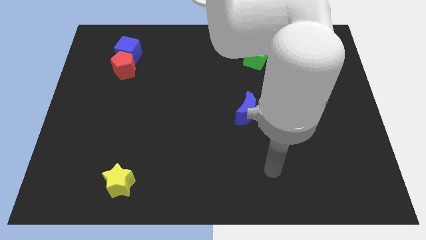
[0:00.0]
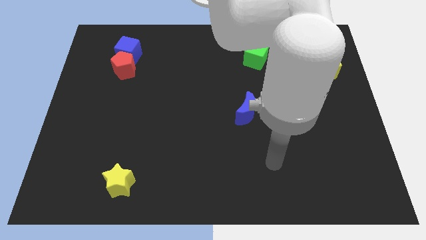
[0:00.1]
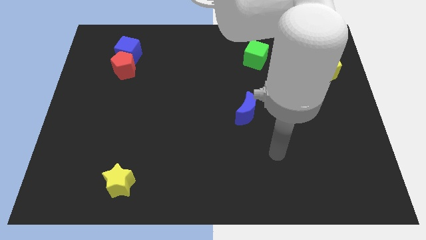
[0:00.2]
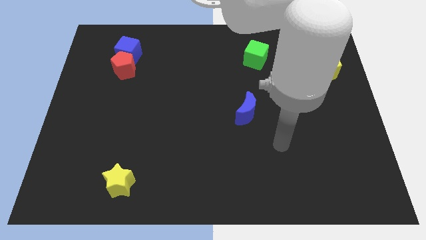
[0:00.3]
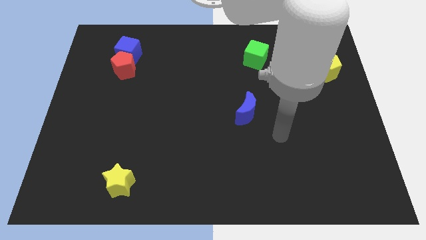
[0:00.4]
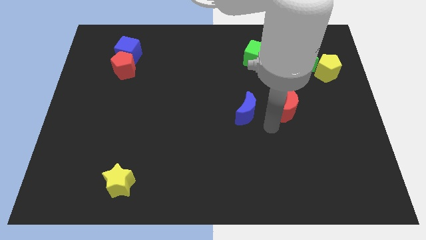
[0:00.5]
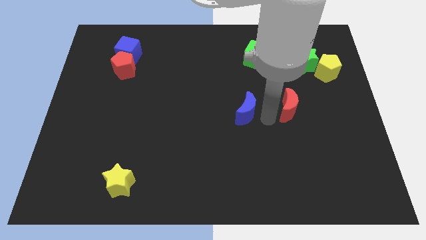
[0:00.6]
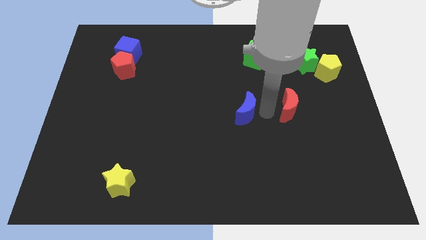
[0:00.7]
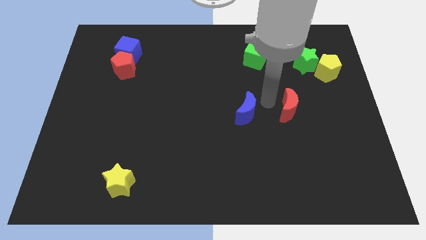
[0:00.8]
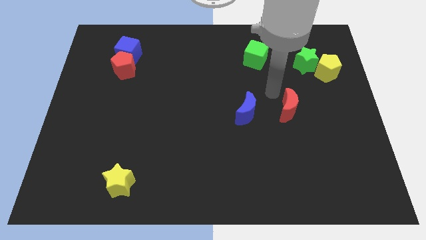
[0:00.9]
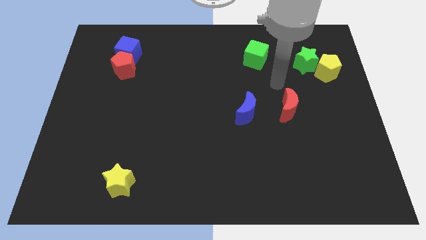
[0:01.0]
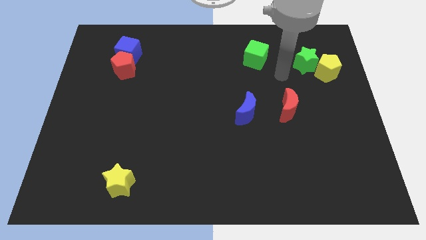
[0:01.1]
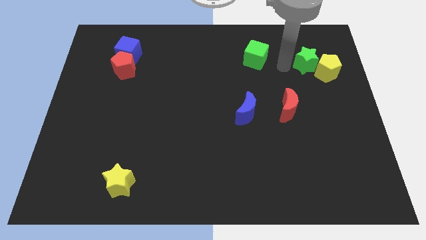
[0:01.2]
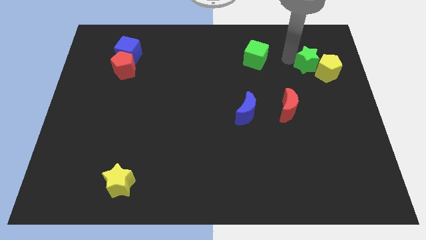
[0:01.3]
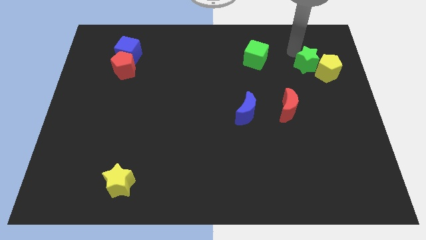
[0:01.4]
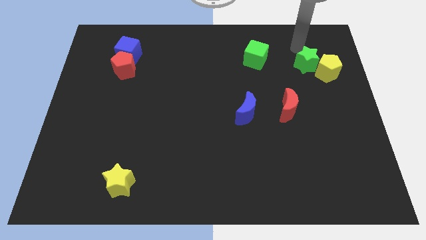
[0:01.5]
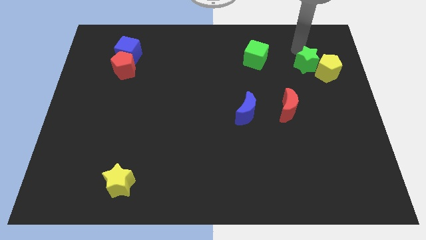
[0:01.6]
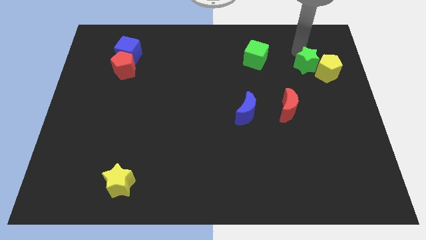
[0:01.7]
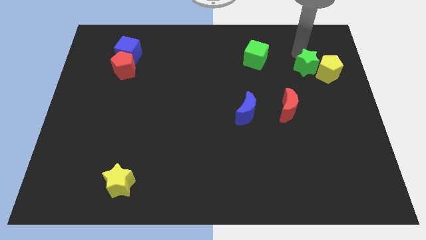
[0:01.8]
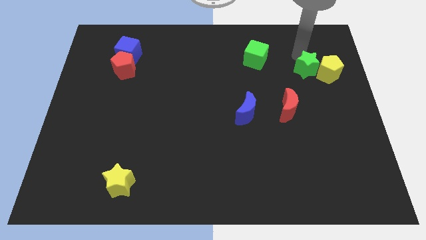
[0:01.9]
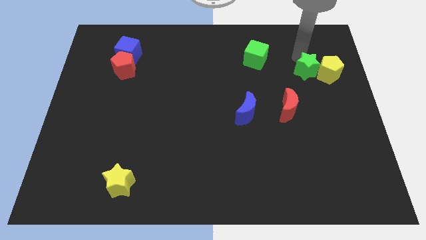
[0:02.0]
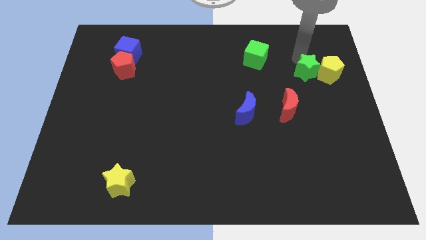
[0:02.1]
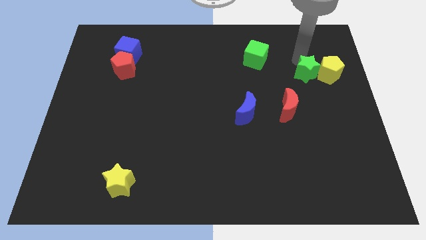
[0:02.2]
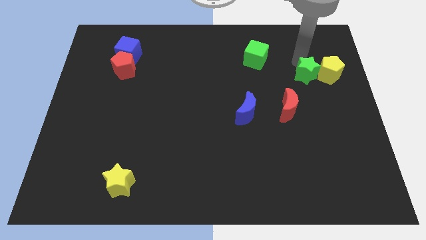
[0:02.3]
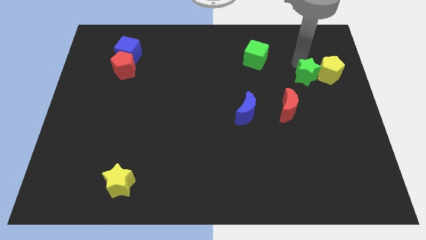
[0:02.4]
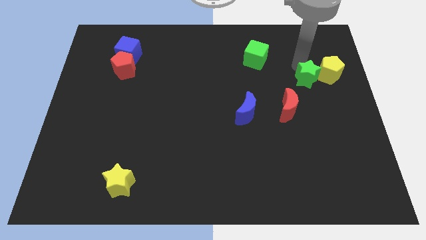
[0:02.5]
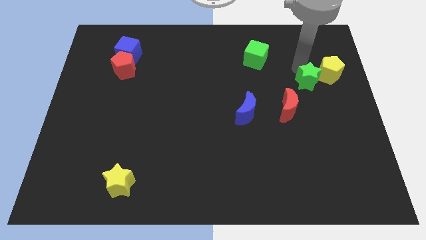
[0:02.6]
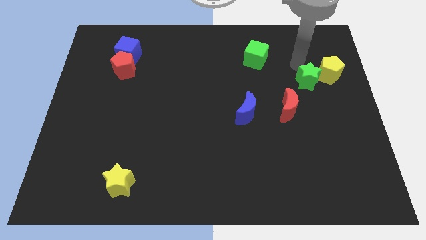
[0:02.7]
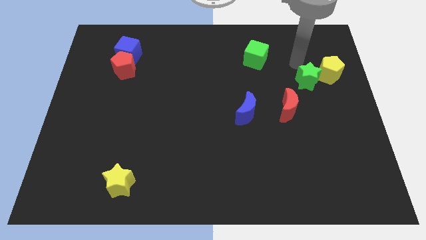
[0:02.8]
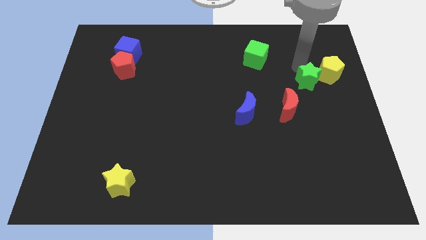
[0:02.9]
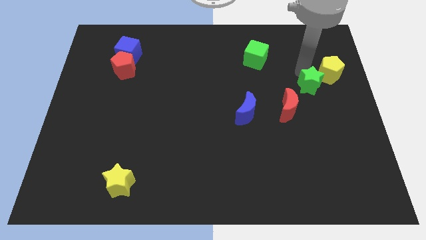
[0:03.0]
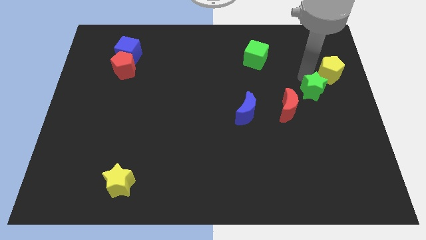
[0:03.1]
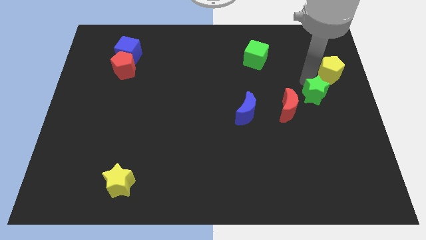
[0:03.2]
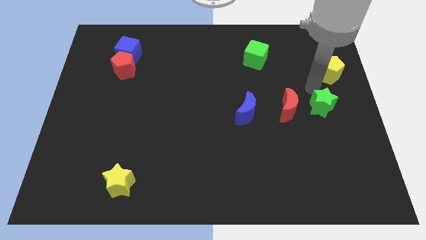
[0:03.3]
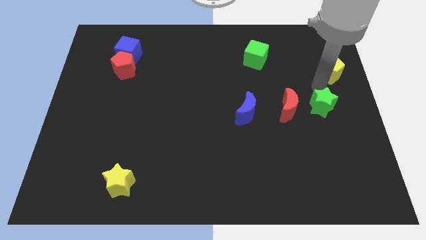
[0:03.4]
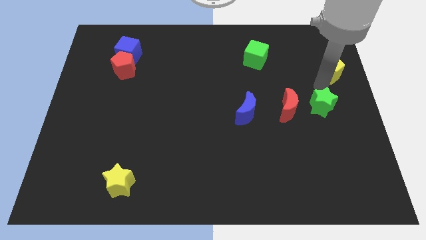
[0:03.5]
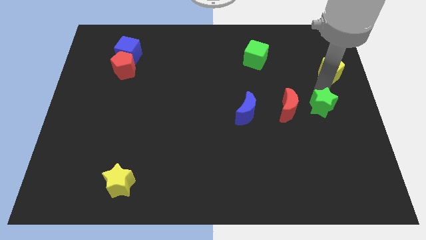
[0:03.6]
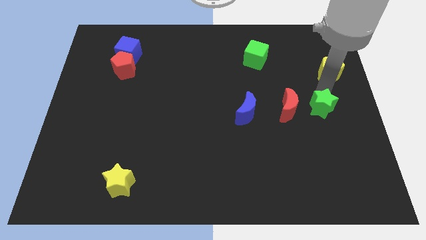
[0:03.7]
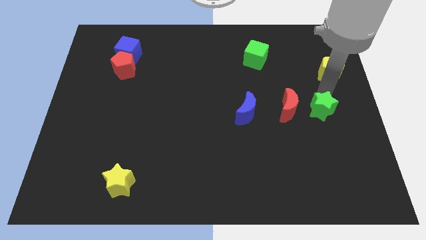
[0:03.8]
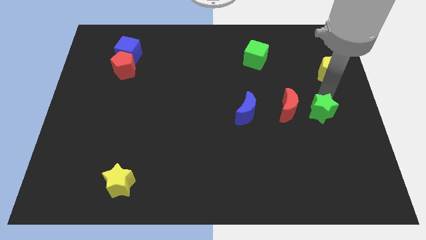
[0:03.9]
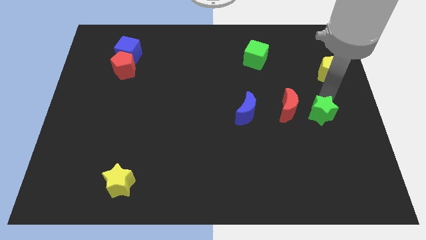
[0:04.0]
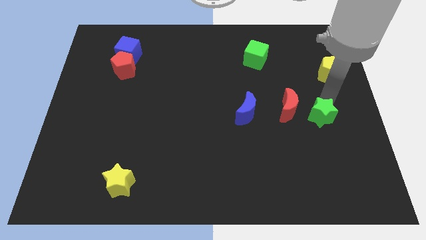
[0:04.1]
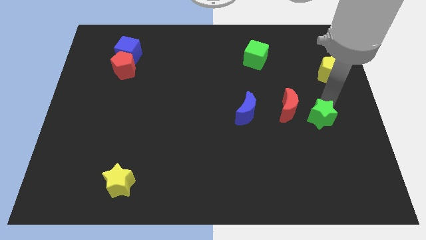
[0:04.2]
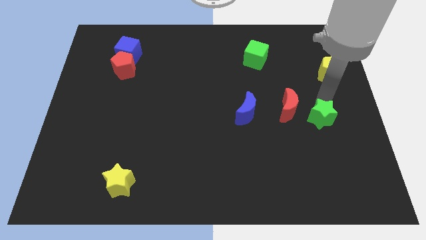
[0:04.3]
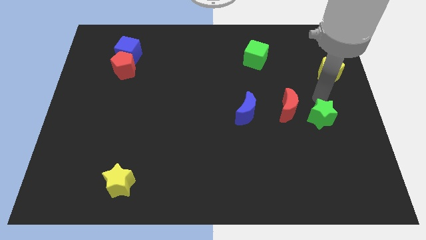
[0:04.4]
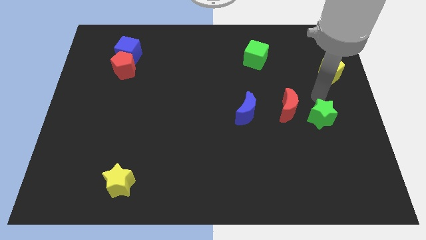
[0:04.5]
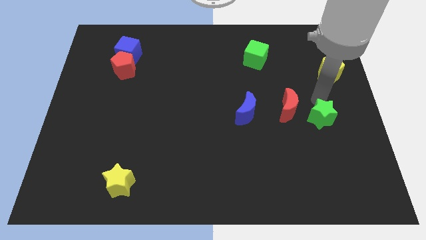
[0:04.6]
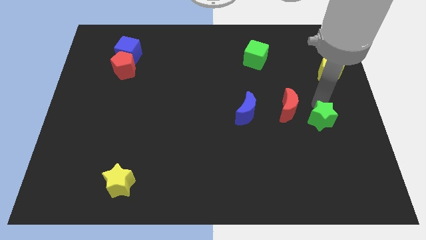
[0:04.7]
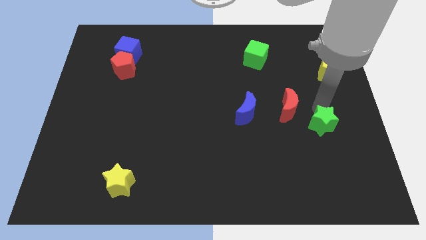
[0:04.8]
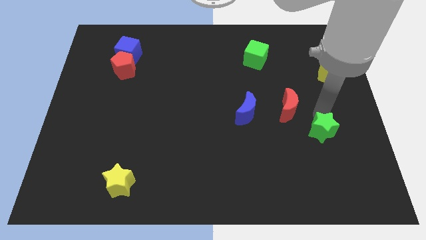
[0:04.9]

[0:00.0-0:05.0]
slide the green star downwards

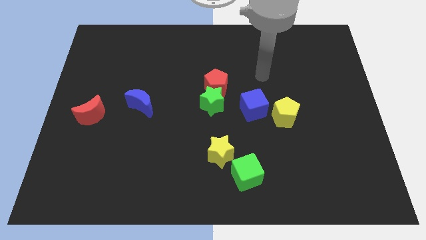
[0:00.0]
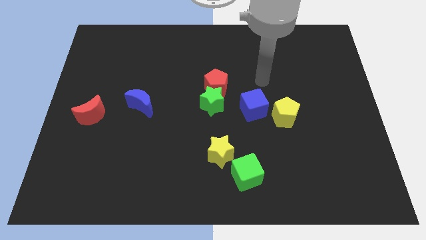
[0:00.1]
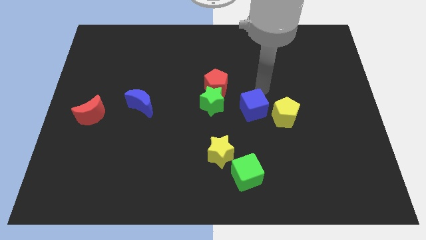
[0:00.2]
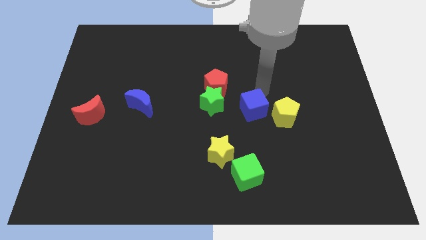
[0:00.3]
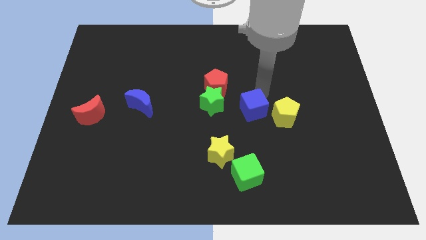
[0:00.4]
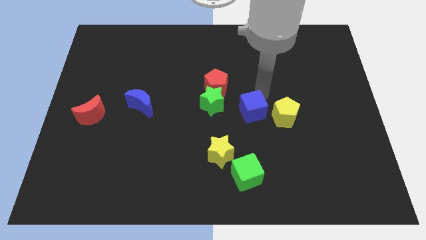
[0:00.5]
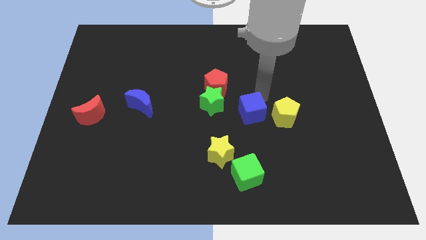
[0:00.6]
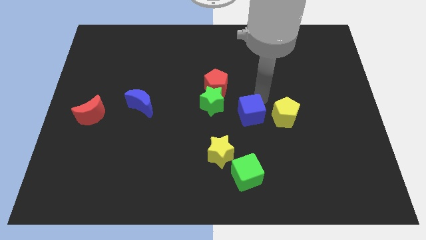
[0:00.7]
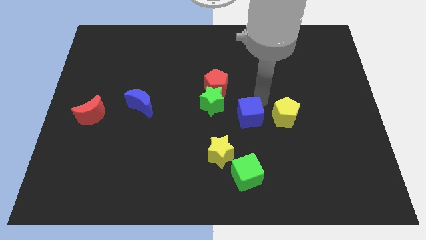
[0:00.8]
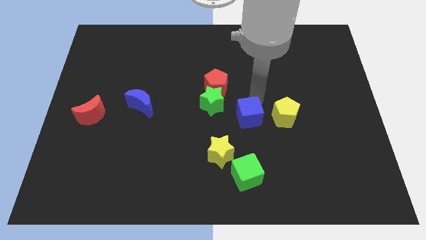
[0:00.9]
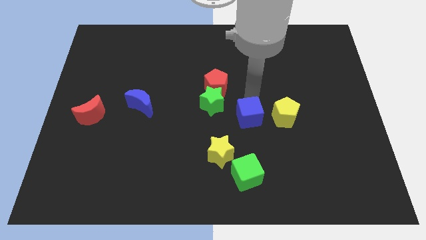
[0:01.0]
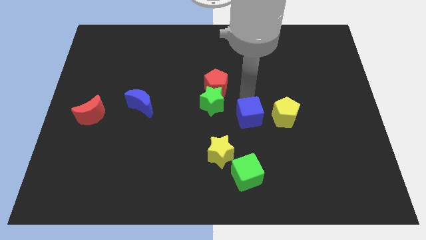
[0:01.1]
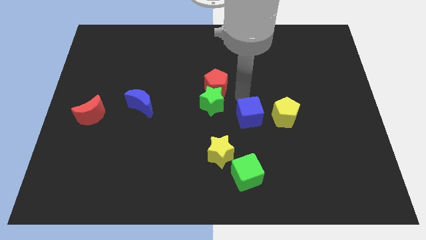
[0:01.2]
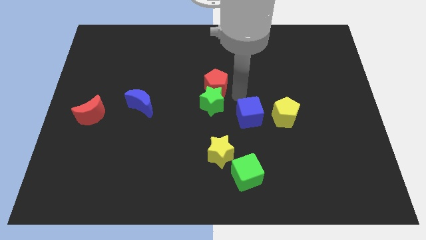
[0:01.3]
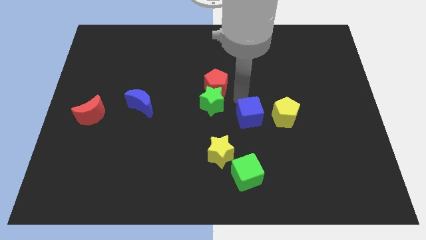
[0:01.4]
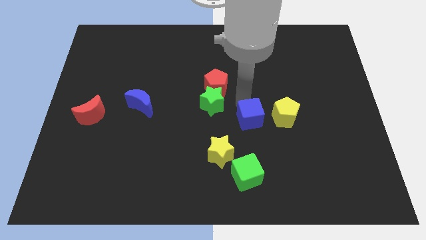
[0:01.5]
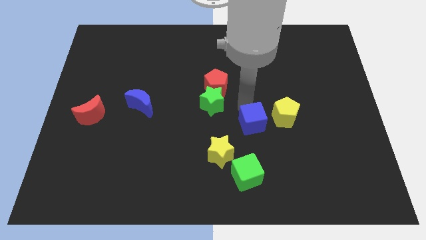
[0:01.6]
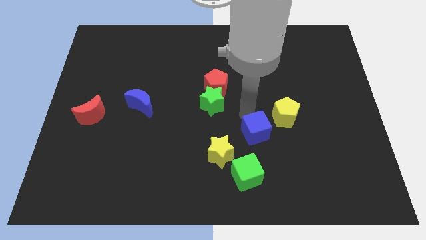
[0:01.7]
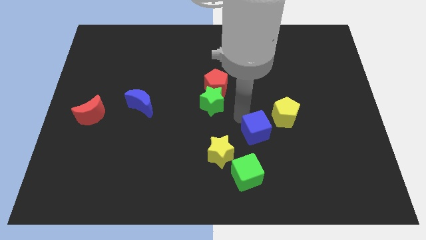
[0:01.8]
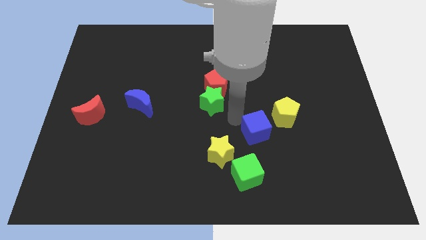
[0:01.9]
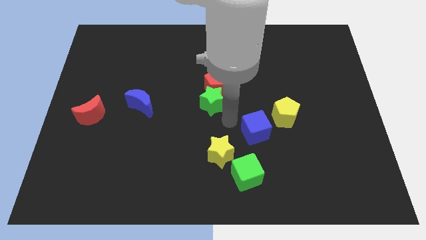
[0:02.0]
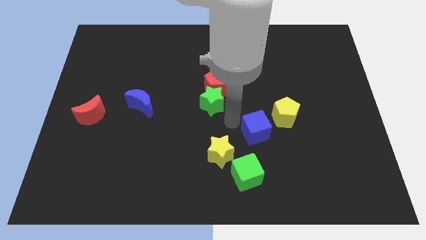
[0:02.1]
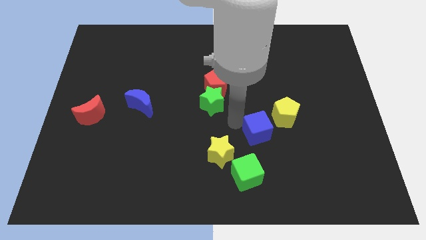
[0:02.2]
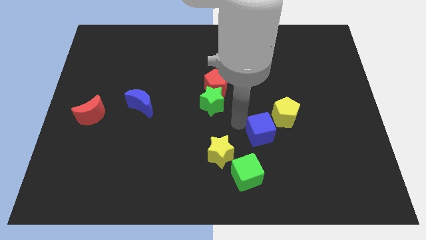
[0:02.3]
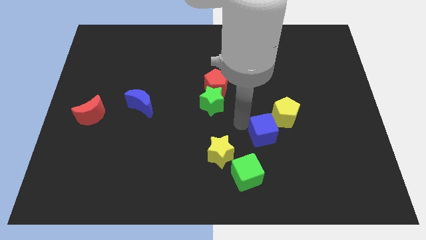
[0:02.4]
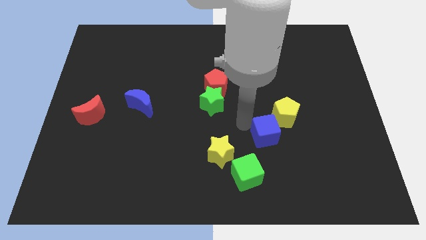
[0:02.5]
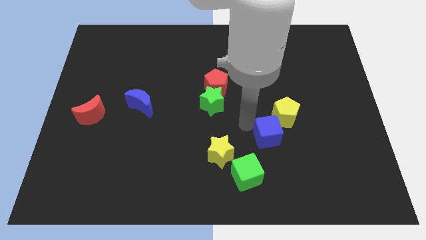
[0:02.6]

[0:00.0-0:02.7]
slide the blue cube downwards and then to the right a little

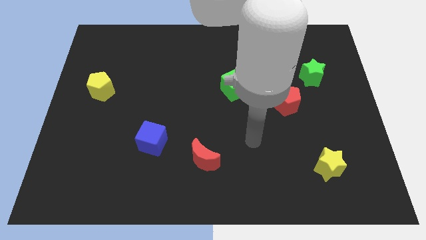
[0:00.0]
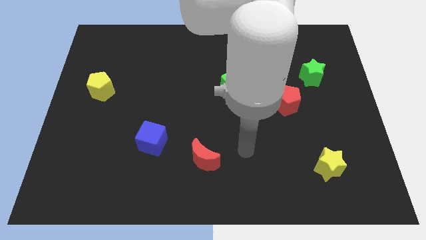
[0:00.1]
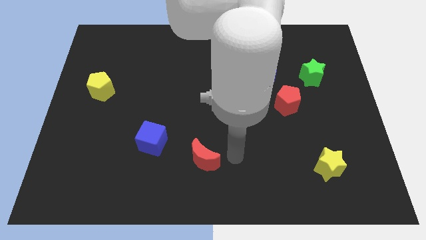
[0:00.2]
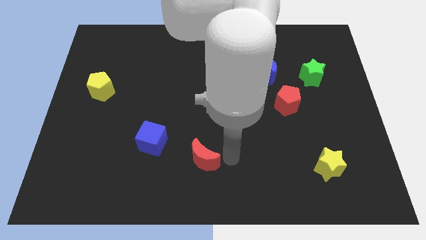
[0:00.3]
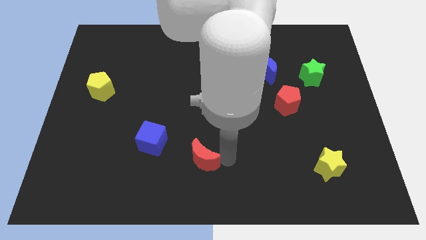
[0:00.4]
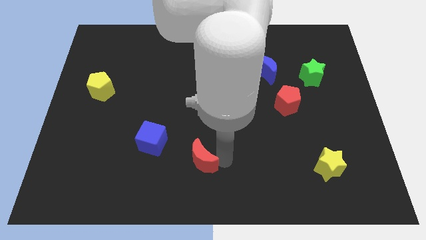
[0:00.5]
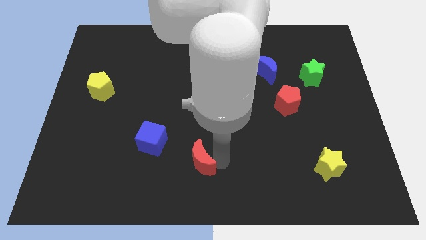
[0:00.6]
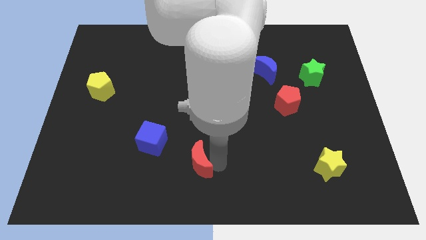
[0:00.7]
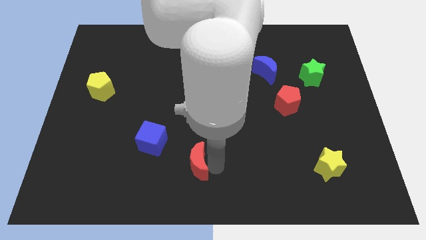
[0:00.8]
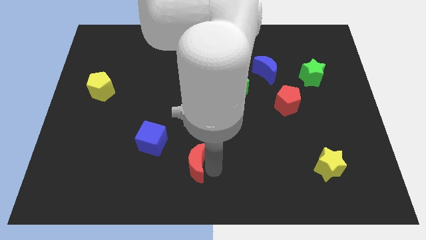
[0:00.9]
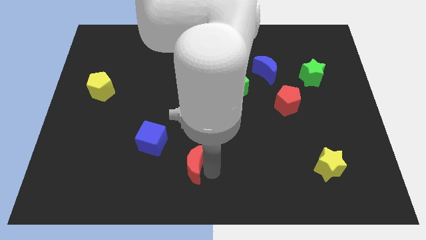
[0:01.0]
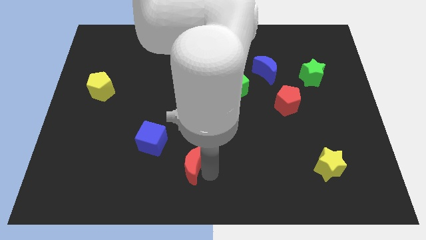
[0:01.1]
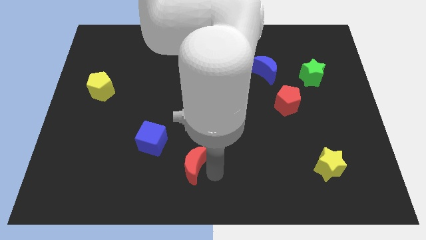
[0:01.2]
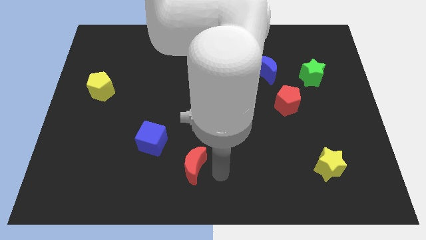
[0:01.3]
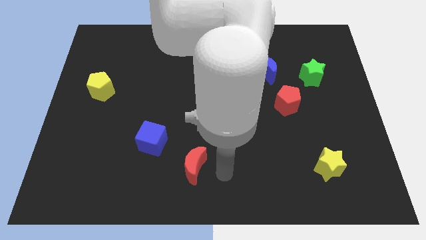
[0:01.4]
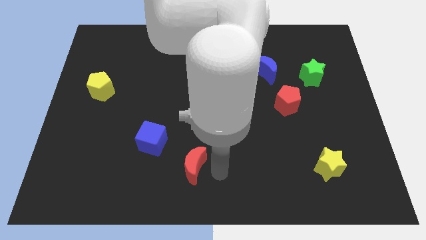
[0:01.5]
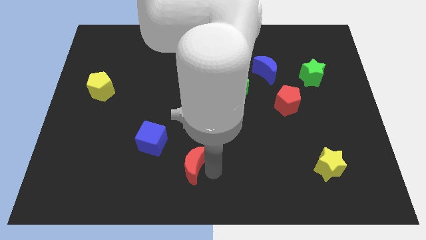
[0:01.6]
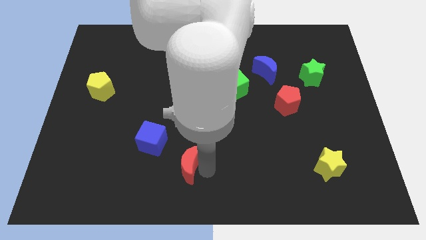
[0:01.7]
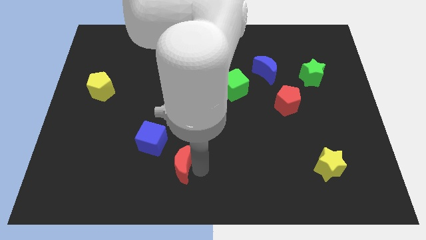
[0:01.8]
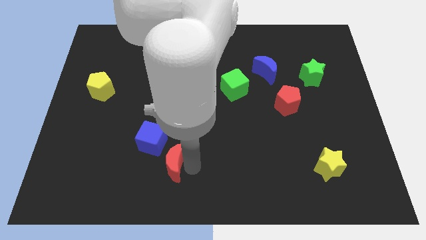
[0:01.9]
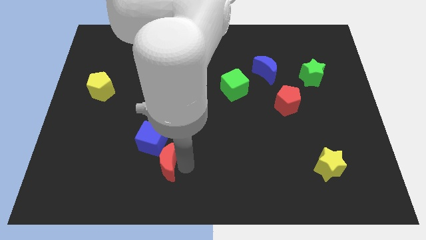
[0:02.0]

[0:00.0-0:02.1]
slide the red moon a little left
